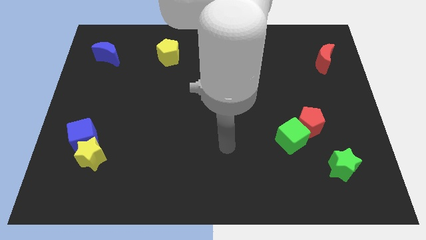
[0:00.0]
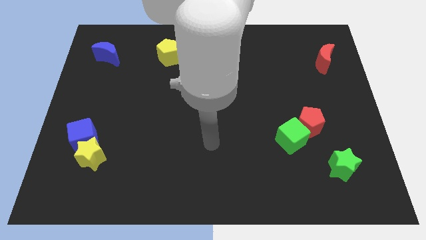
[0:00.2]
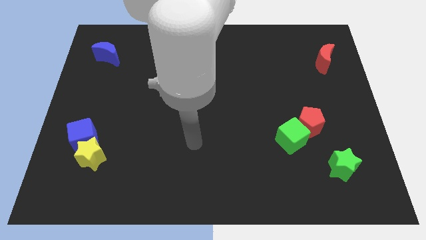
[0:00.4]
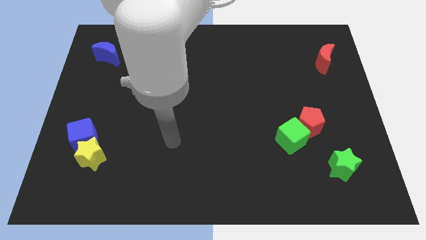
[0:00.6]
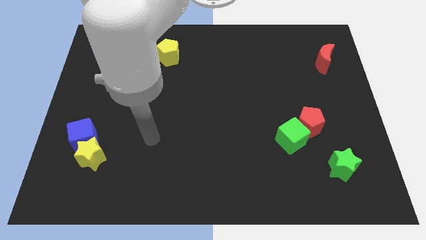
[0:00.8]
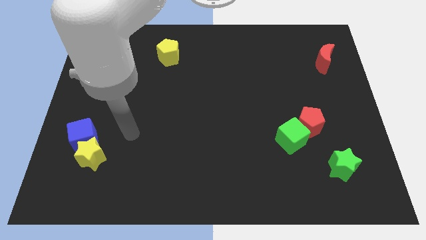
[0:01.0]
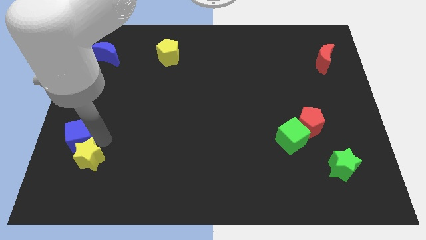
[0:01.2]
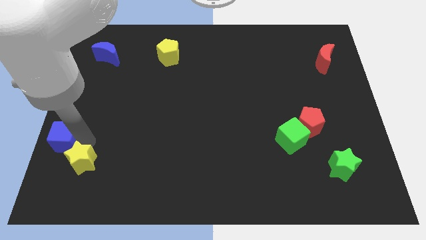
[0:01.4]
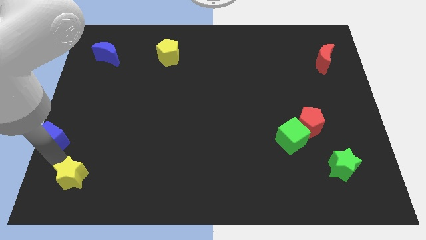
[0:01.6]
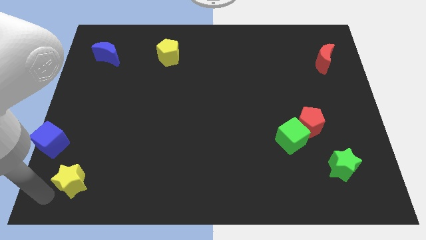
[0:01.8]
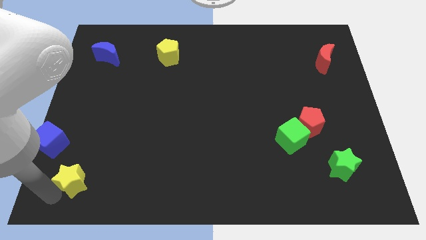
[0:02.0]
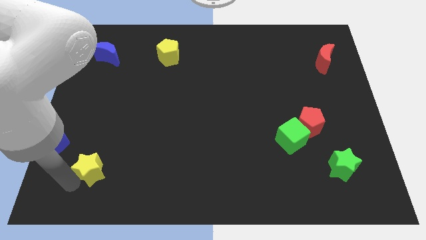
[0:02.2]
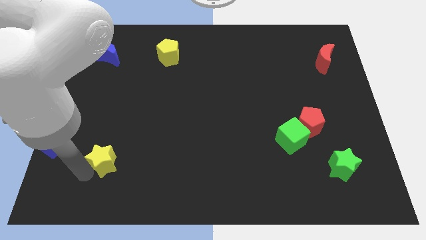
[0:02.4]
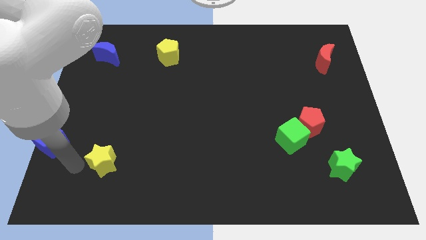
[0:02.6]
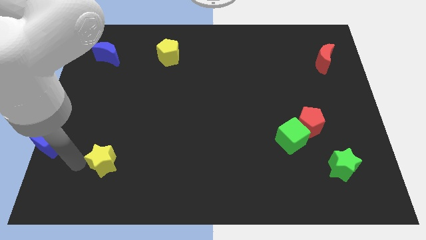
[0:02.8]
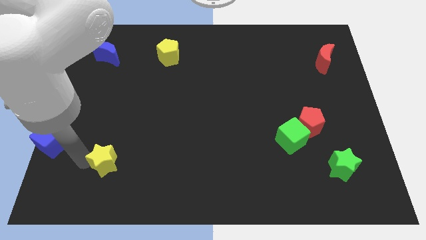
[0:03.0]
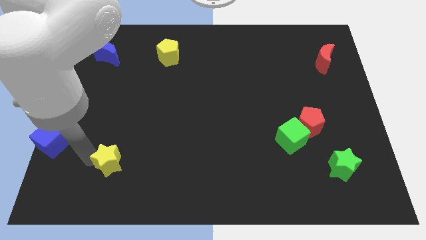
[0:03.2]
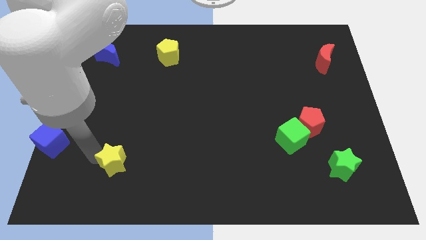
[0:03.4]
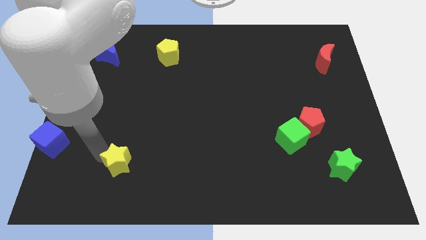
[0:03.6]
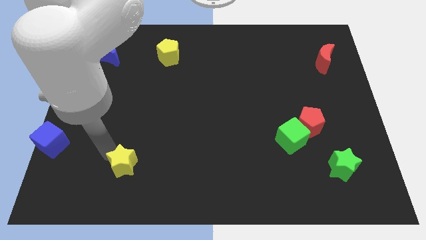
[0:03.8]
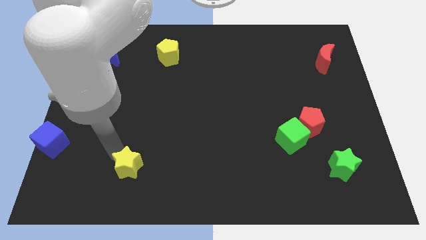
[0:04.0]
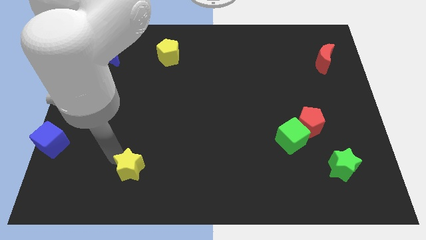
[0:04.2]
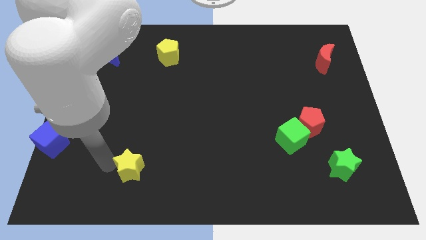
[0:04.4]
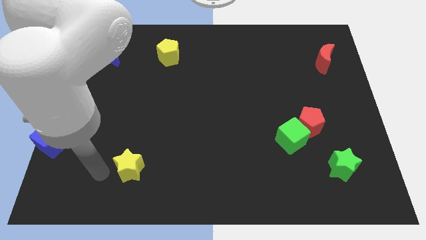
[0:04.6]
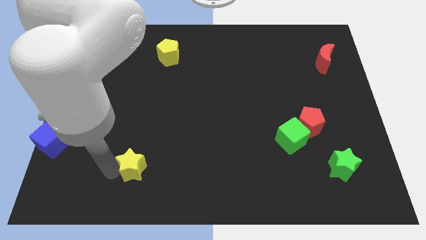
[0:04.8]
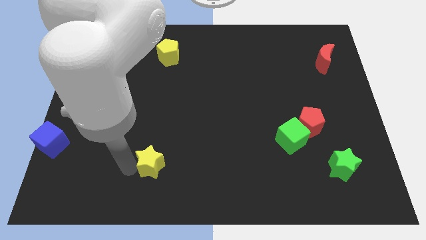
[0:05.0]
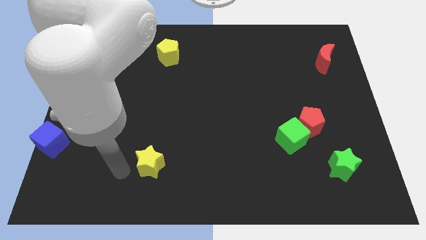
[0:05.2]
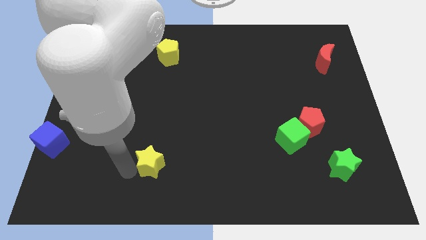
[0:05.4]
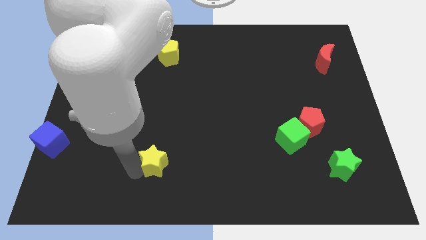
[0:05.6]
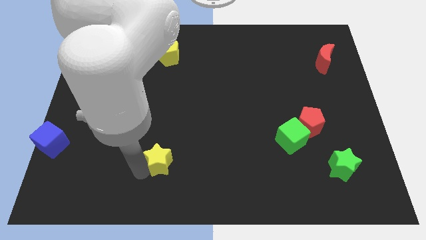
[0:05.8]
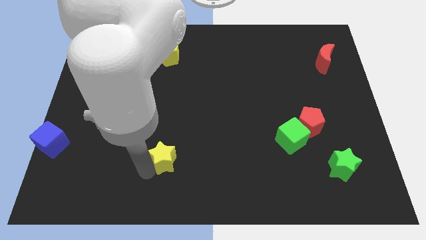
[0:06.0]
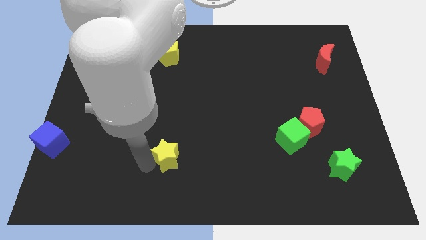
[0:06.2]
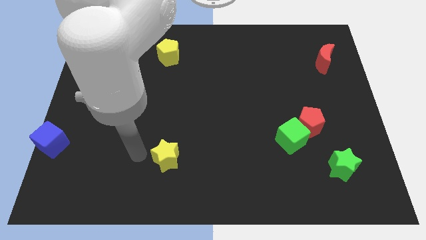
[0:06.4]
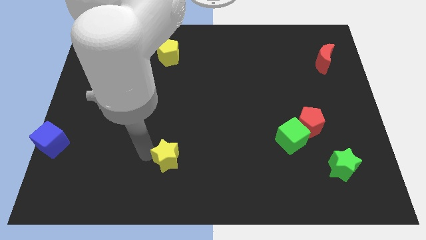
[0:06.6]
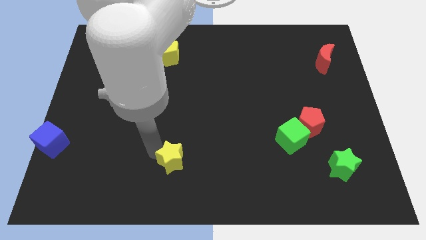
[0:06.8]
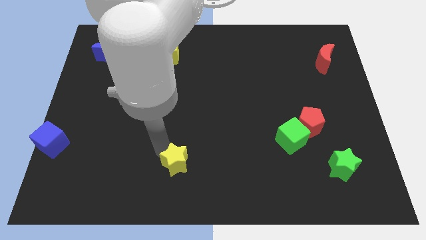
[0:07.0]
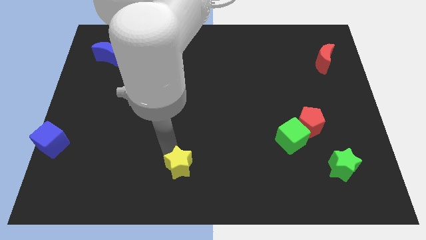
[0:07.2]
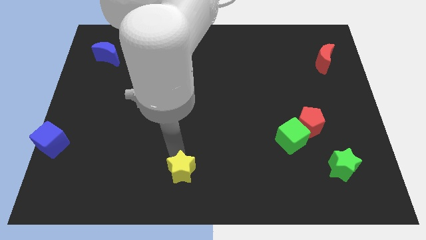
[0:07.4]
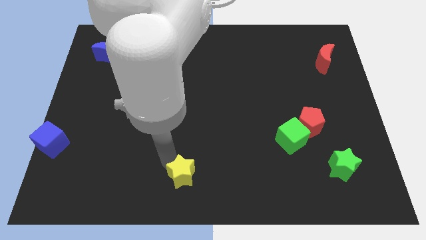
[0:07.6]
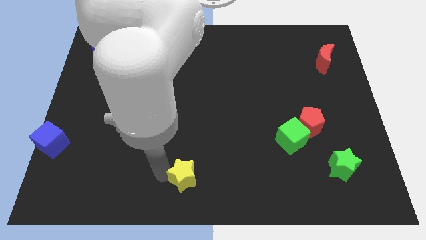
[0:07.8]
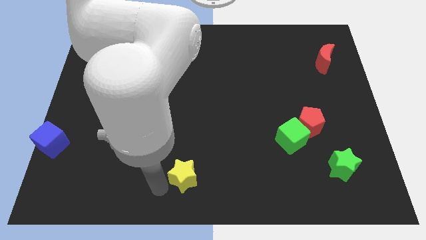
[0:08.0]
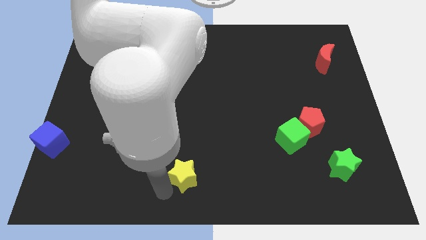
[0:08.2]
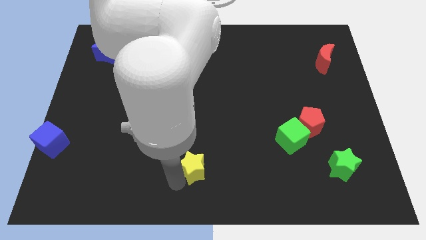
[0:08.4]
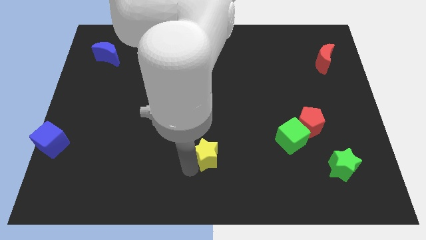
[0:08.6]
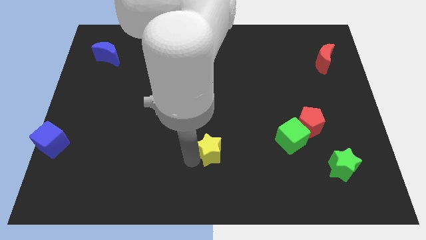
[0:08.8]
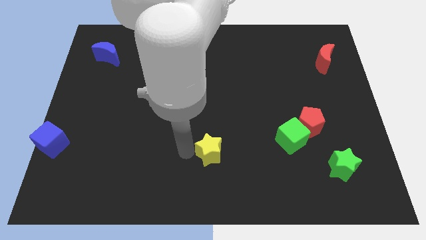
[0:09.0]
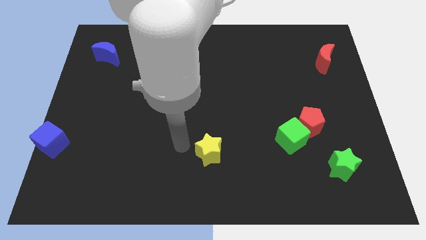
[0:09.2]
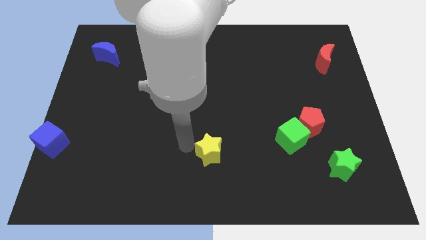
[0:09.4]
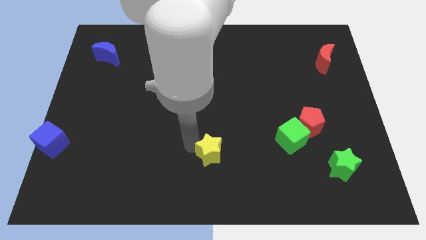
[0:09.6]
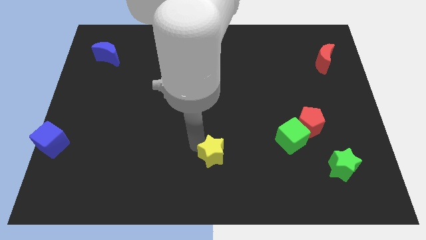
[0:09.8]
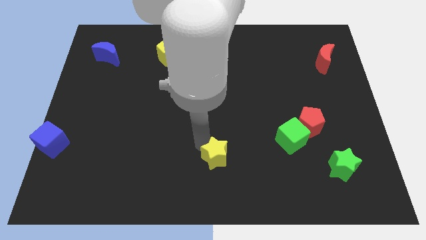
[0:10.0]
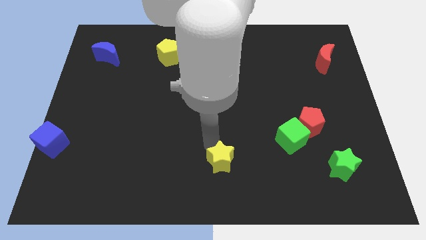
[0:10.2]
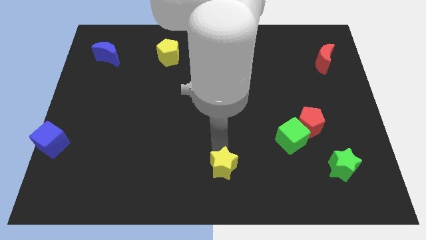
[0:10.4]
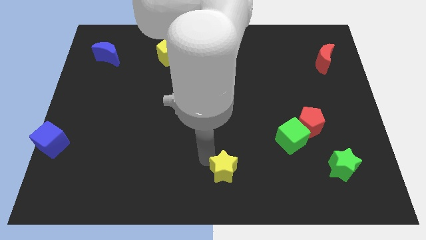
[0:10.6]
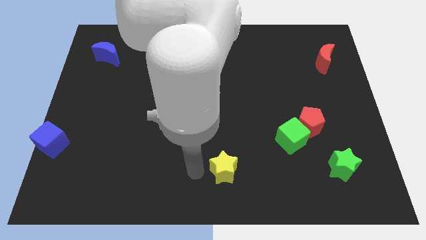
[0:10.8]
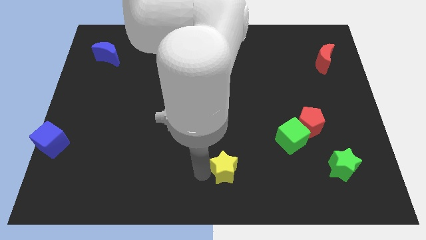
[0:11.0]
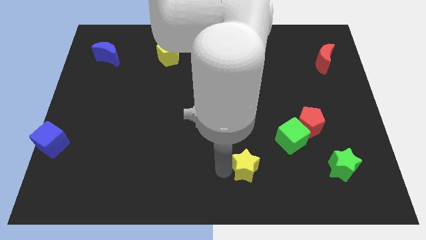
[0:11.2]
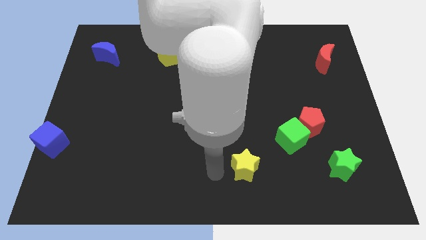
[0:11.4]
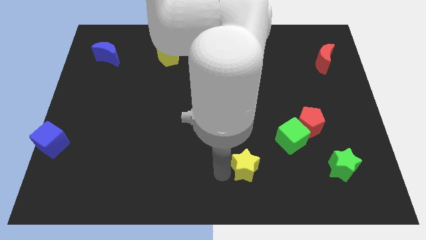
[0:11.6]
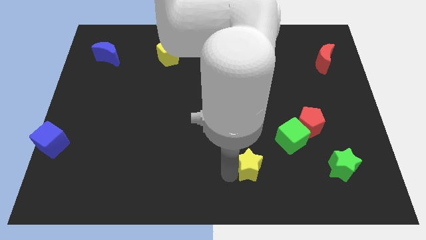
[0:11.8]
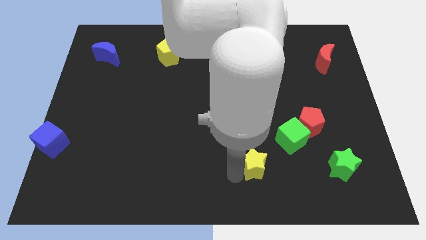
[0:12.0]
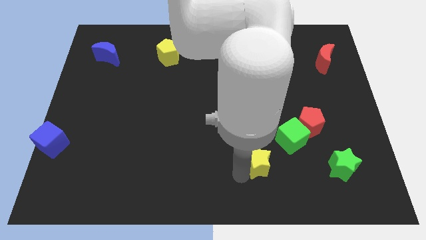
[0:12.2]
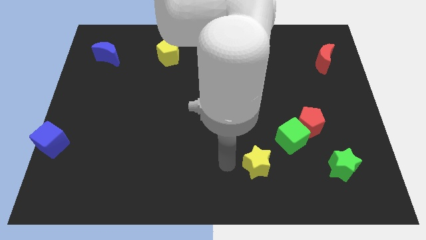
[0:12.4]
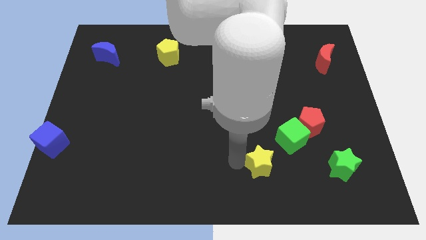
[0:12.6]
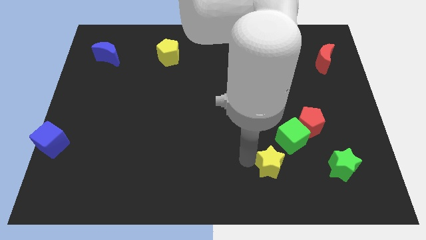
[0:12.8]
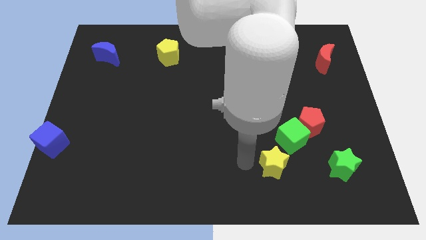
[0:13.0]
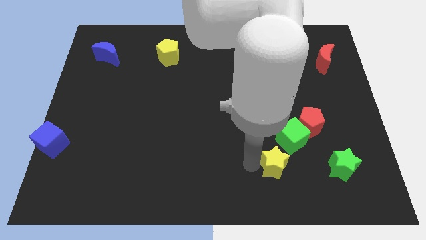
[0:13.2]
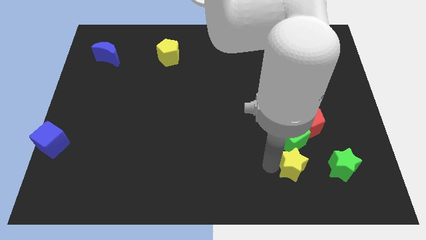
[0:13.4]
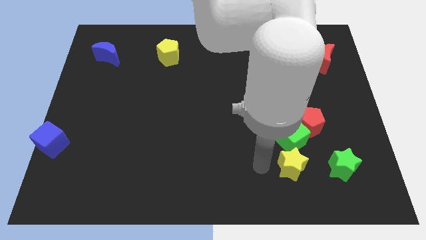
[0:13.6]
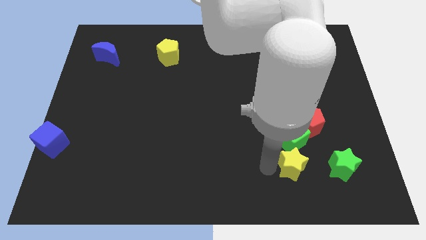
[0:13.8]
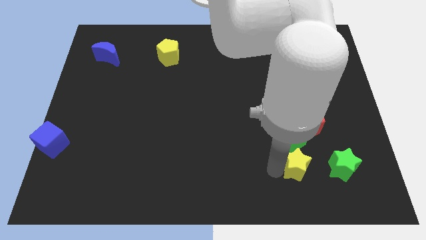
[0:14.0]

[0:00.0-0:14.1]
put the yellow star to the bottom of the red pentagon
